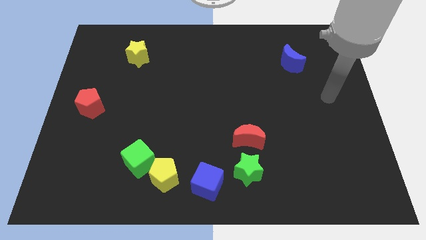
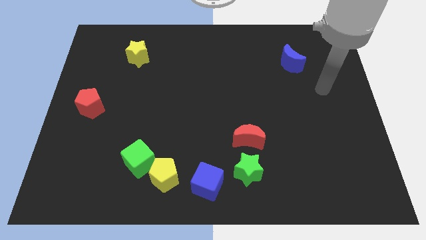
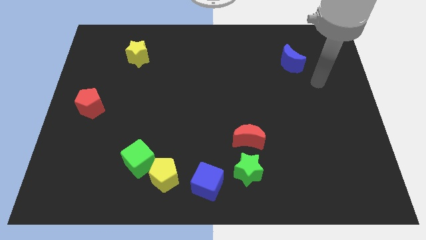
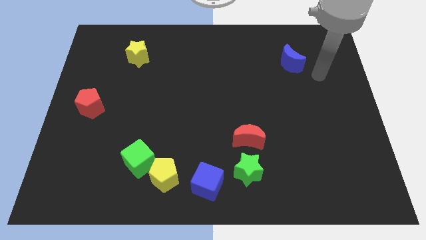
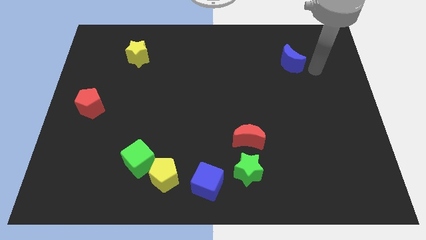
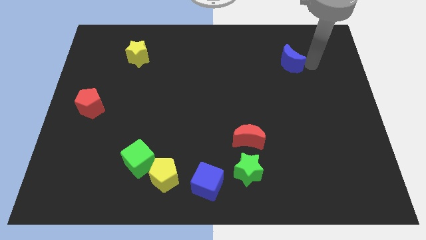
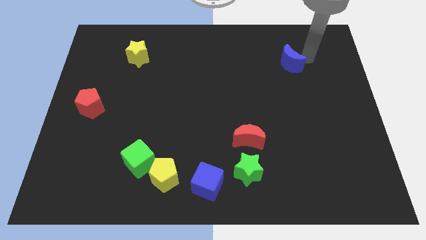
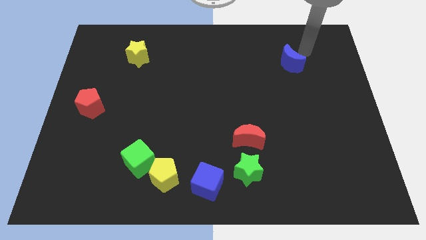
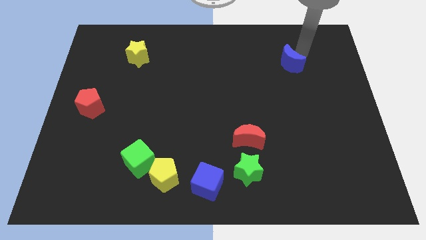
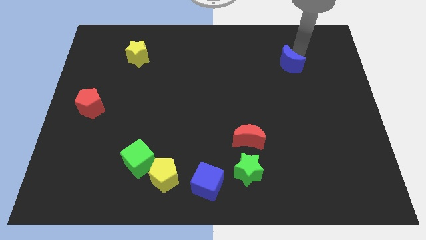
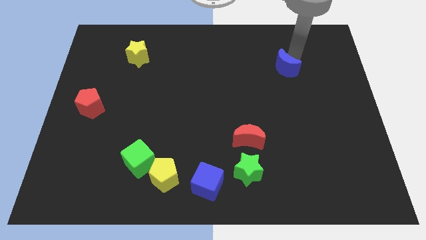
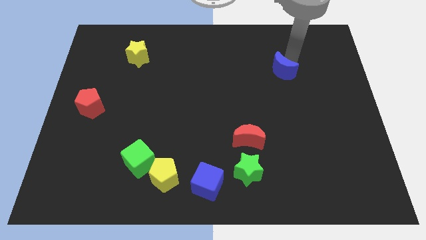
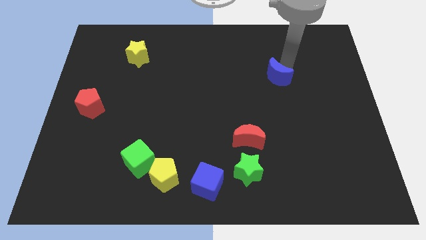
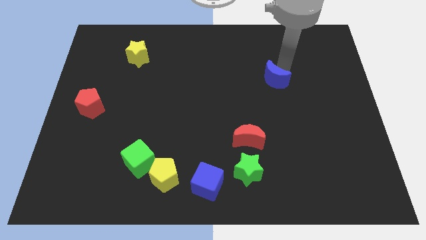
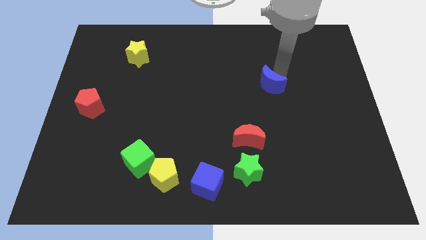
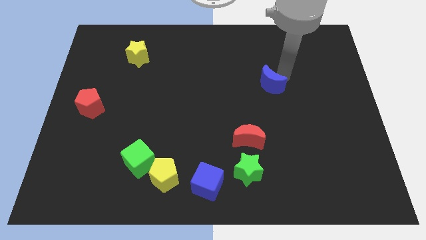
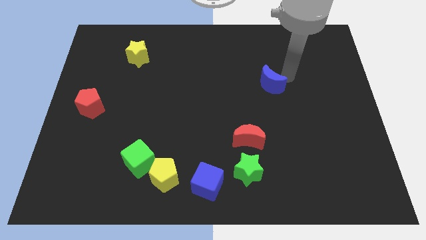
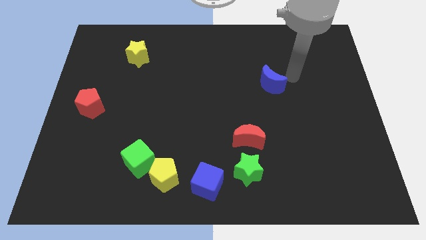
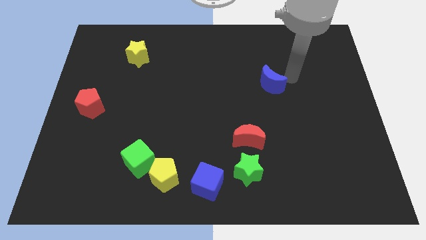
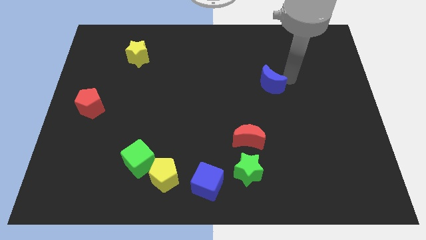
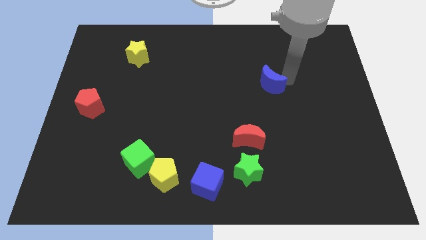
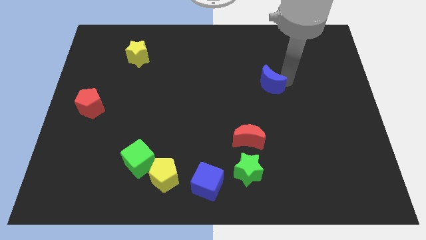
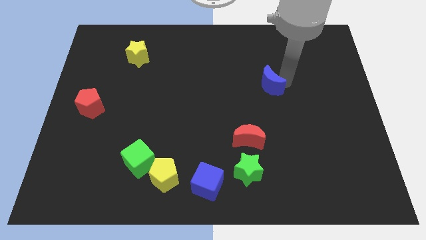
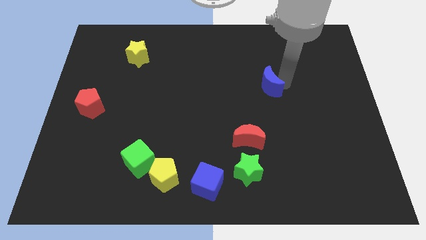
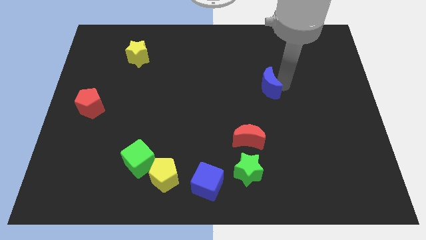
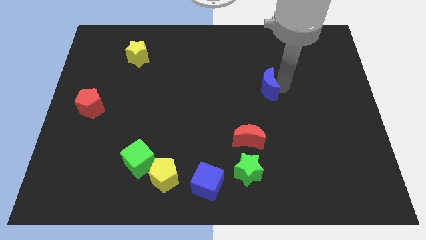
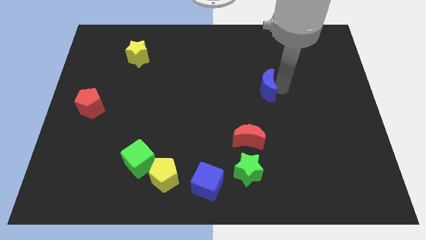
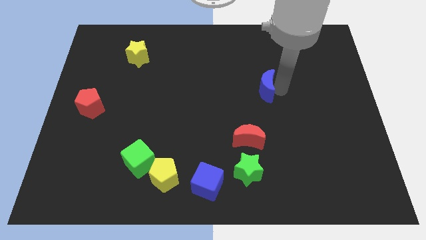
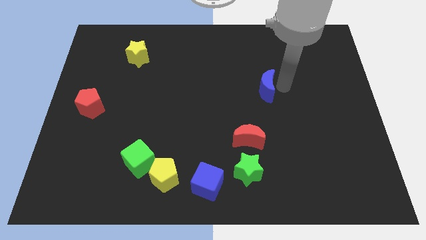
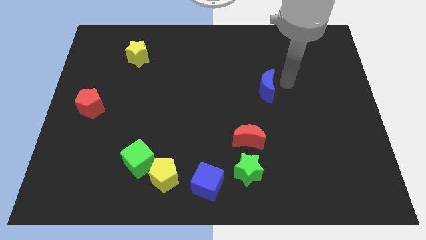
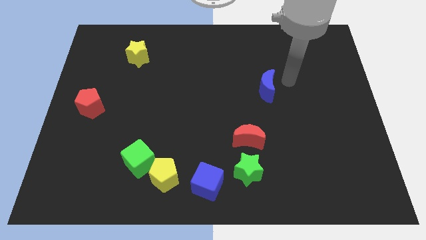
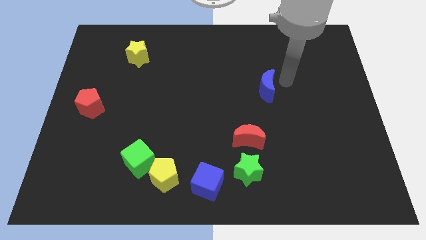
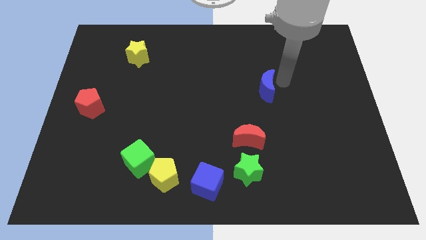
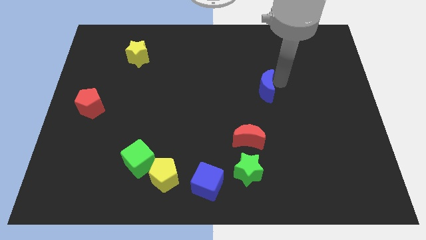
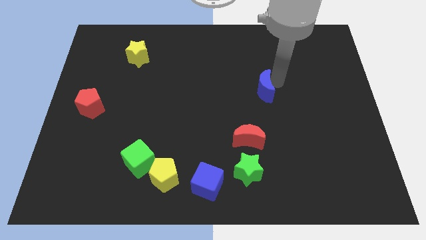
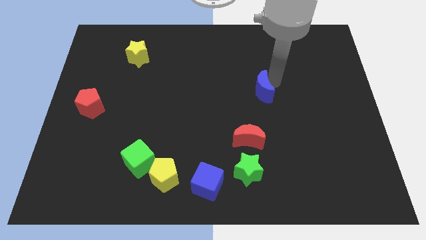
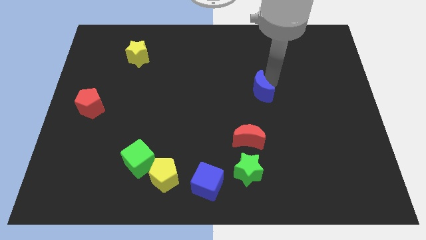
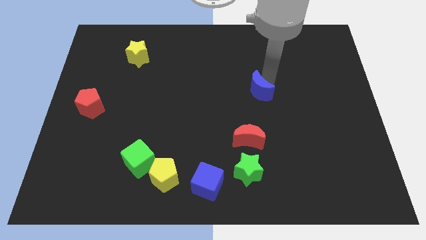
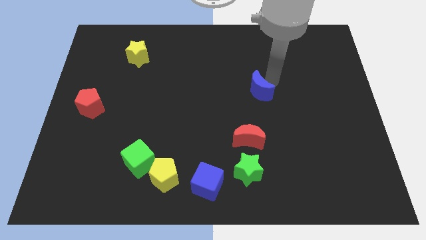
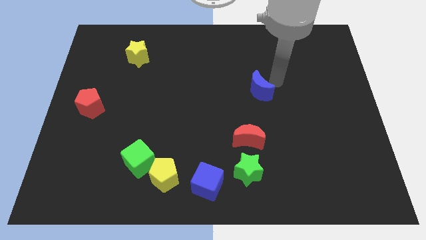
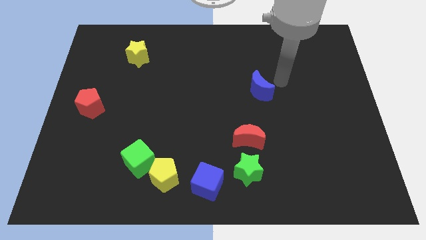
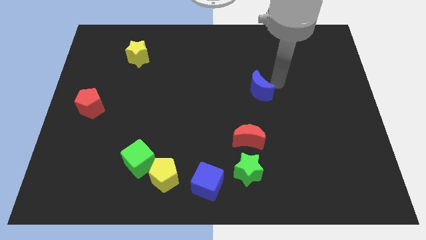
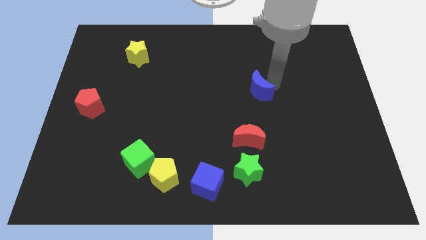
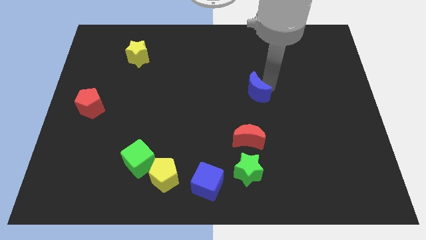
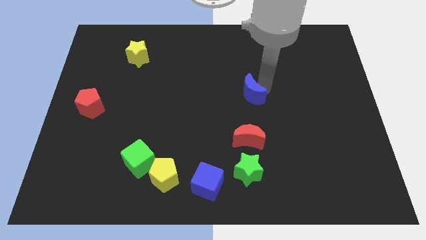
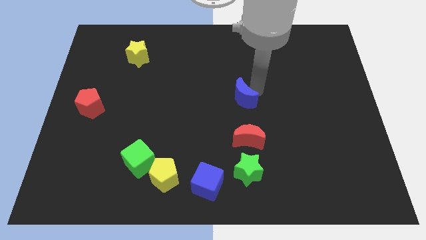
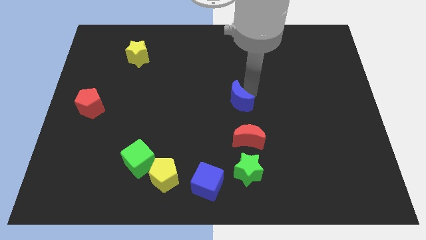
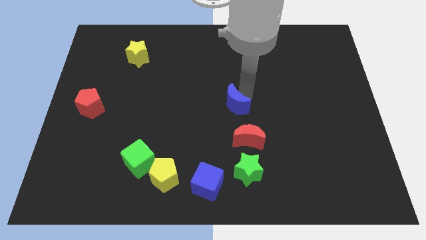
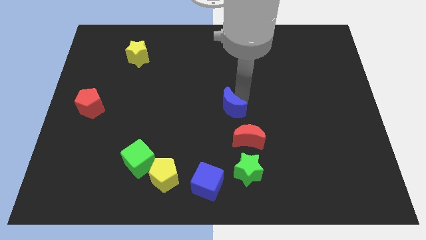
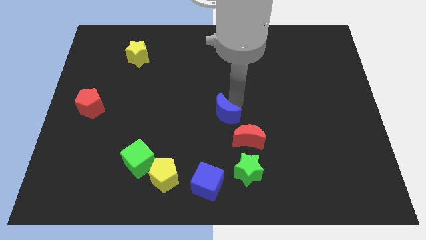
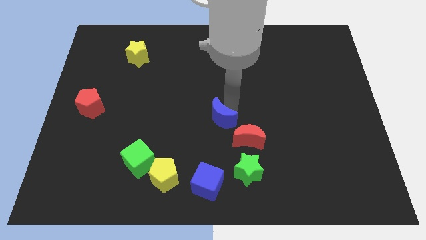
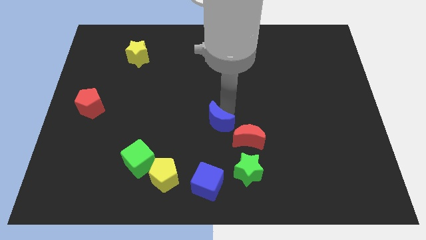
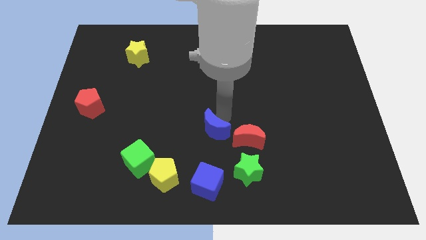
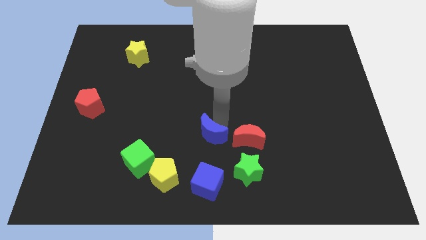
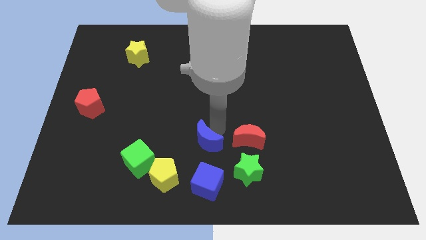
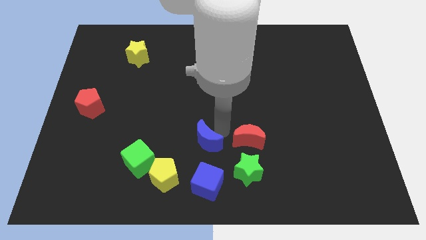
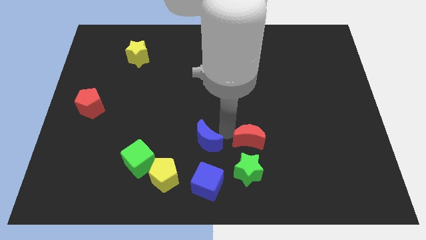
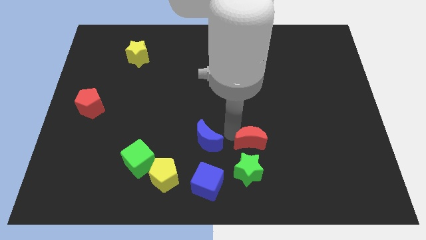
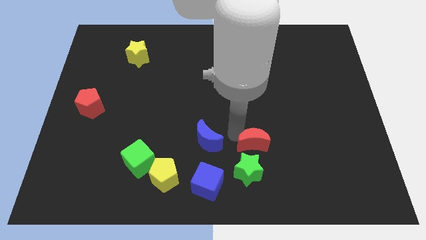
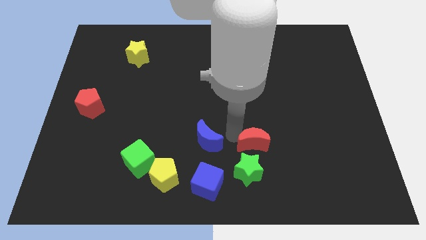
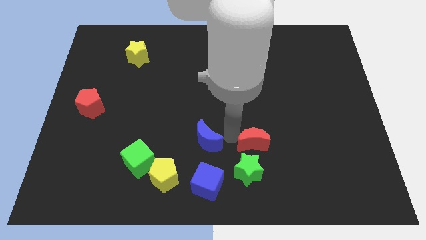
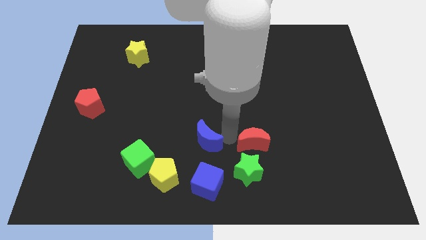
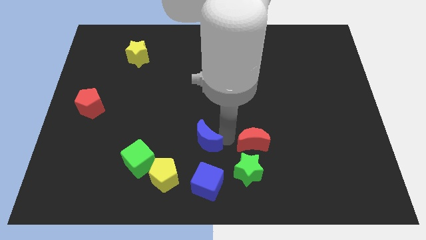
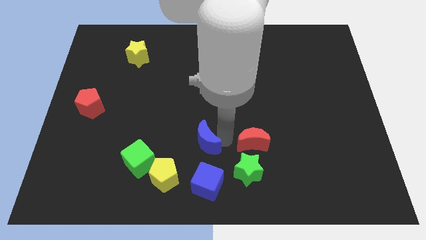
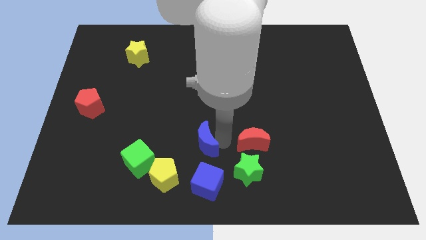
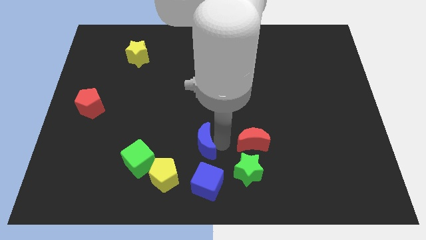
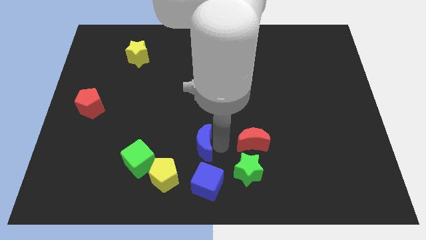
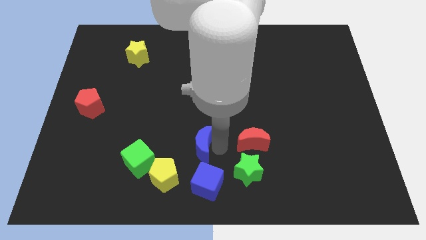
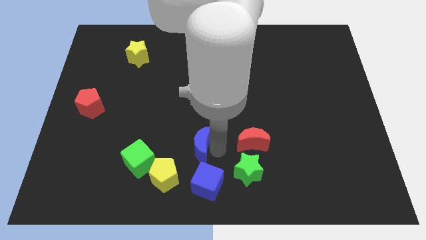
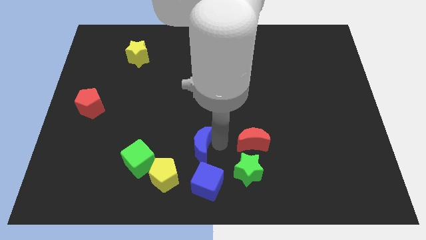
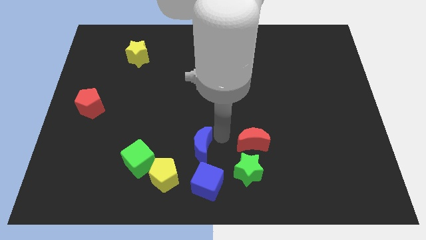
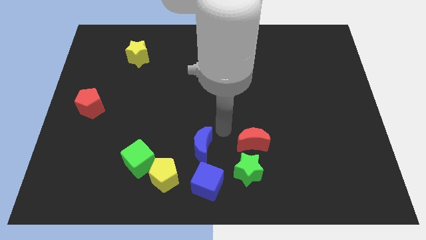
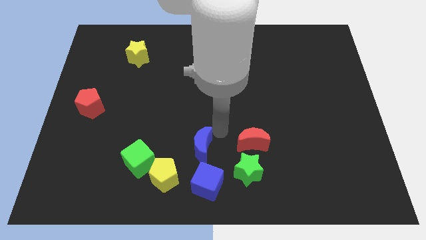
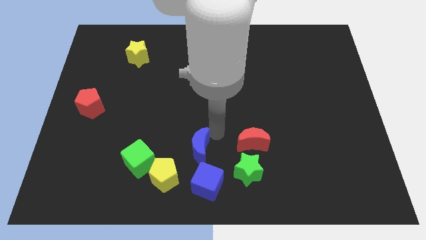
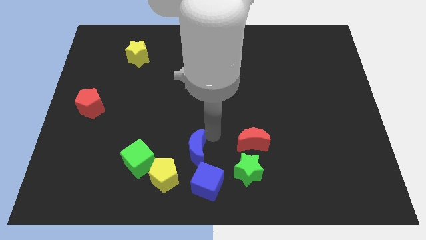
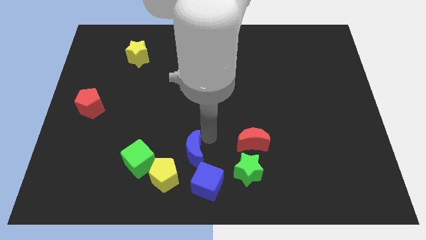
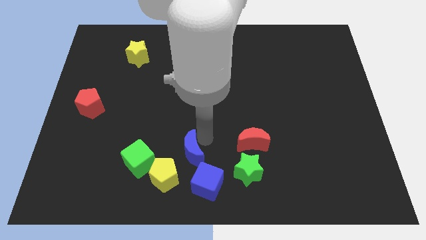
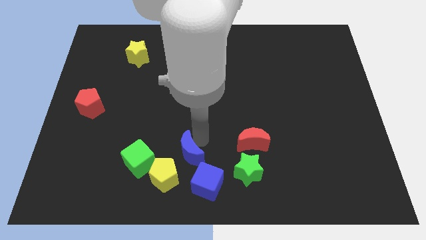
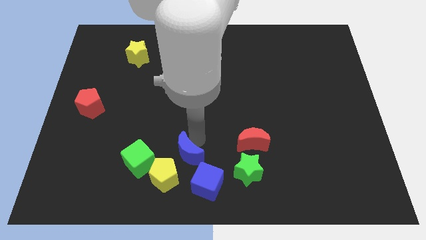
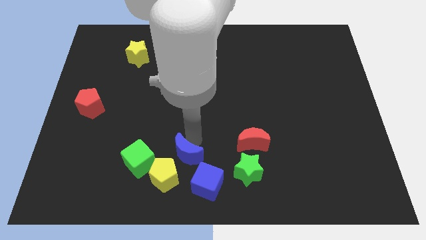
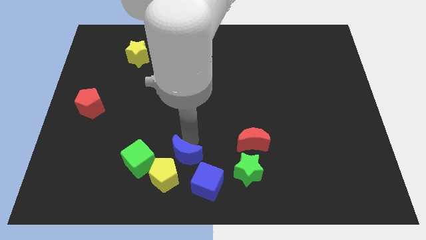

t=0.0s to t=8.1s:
push the blue moon towards the yellow pentagon
